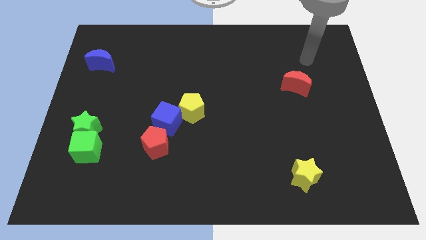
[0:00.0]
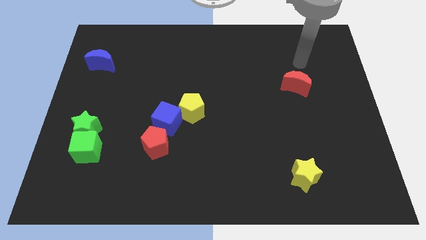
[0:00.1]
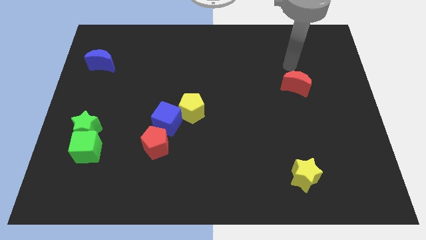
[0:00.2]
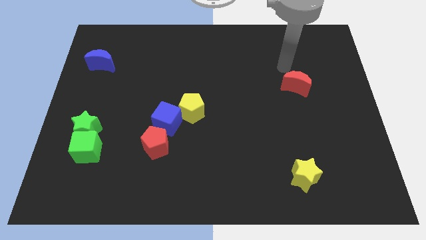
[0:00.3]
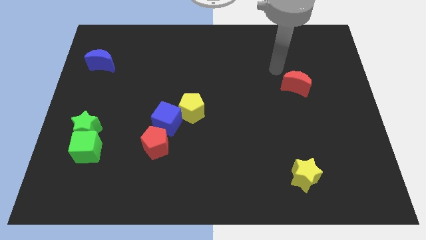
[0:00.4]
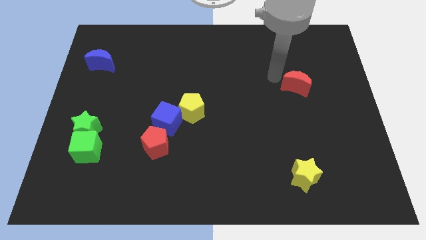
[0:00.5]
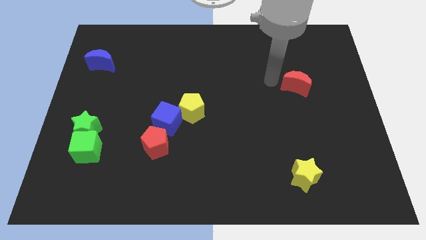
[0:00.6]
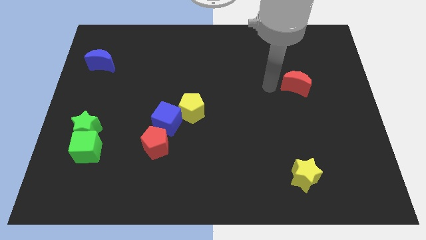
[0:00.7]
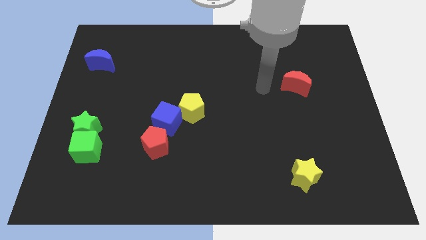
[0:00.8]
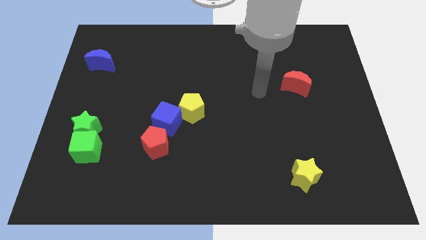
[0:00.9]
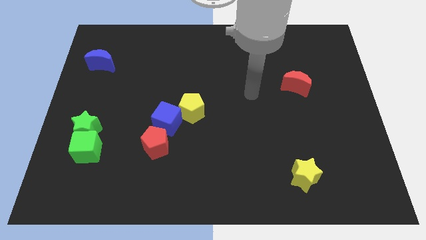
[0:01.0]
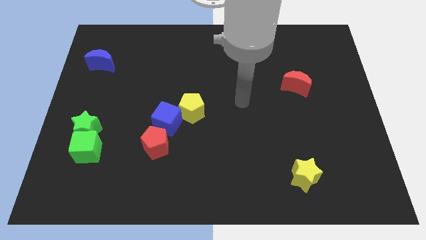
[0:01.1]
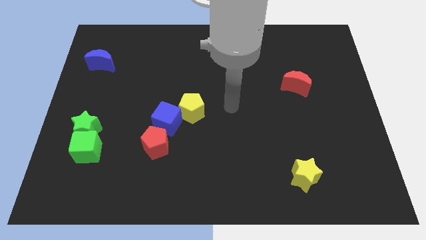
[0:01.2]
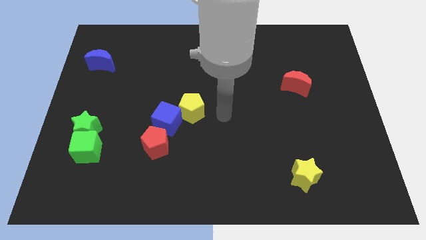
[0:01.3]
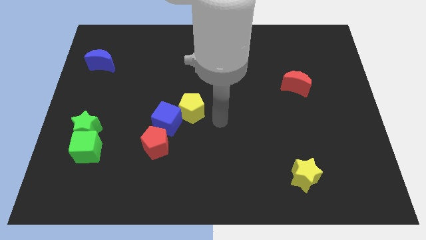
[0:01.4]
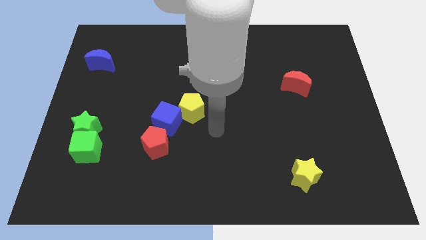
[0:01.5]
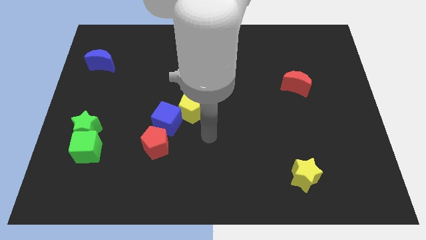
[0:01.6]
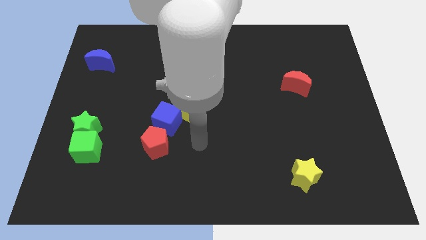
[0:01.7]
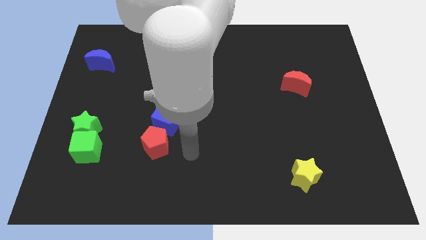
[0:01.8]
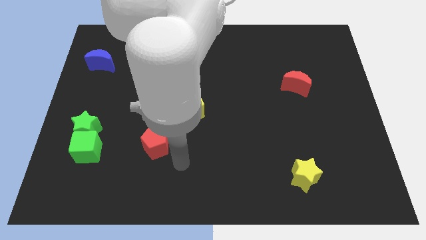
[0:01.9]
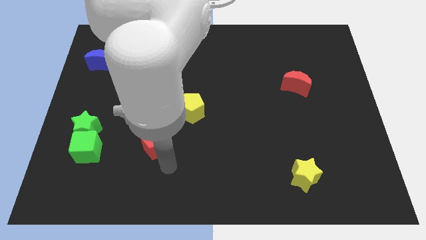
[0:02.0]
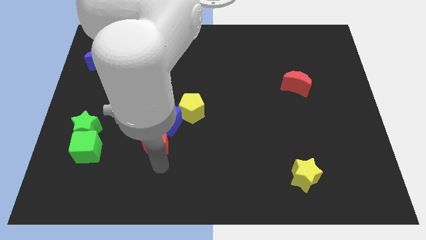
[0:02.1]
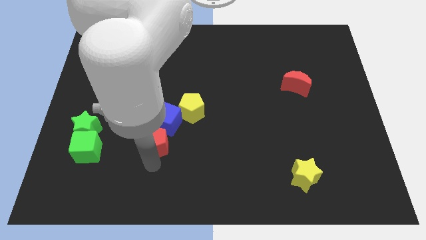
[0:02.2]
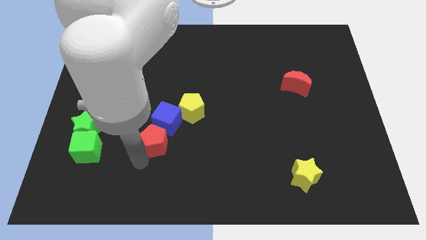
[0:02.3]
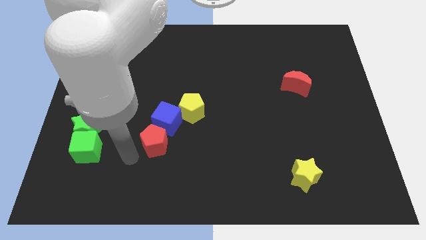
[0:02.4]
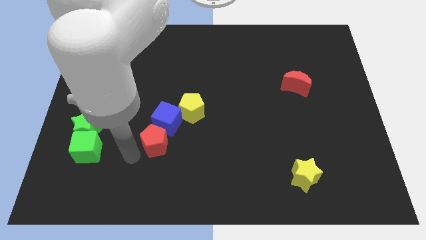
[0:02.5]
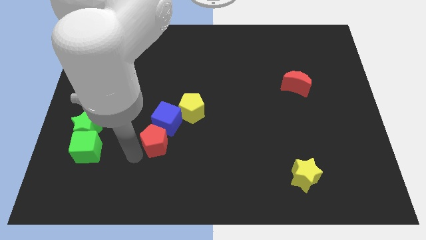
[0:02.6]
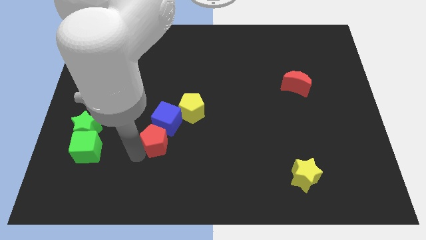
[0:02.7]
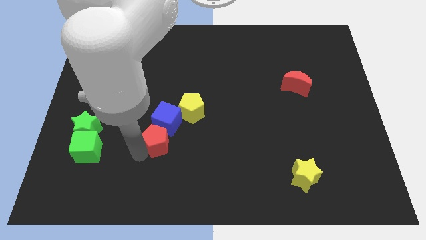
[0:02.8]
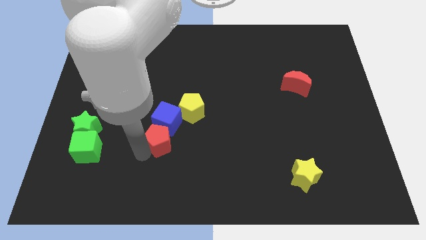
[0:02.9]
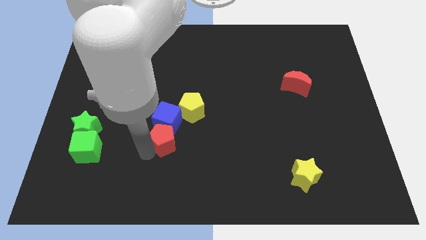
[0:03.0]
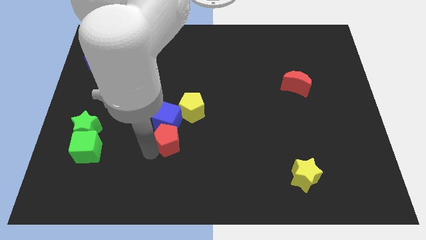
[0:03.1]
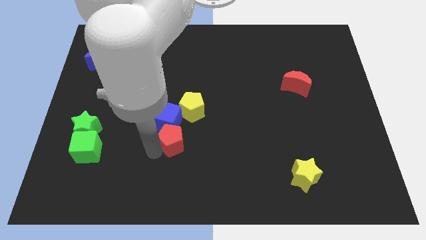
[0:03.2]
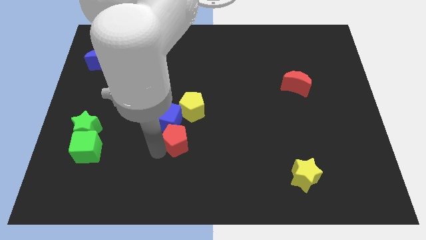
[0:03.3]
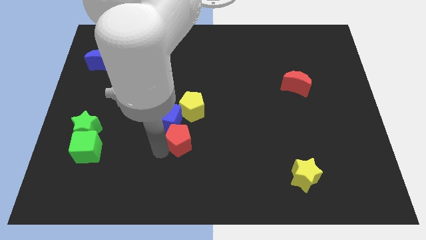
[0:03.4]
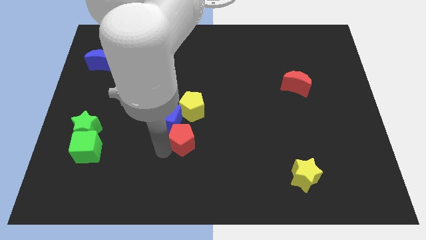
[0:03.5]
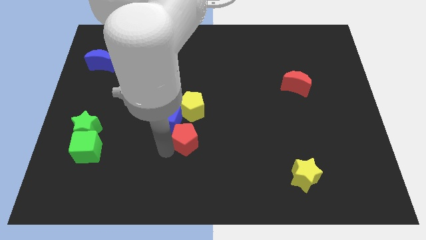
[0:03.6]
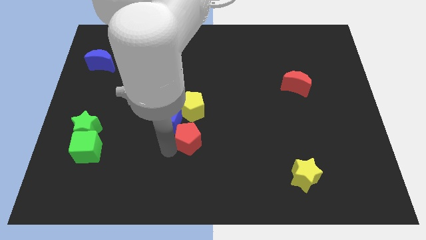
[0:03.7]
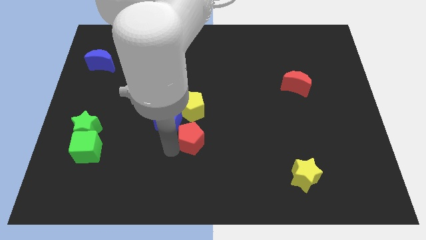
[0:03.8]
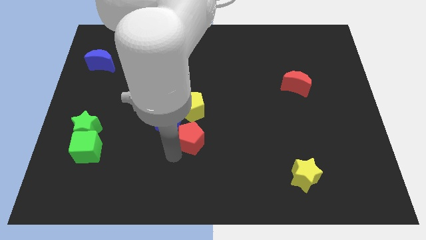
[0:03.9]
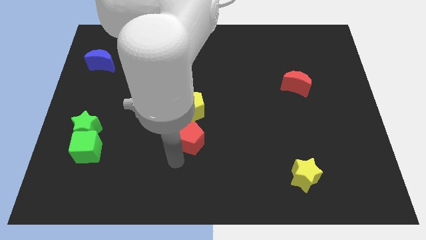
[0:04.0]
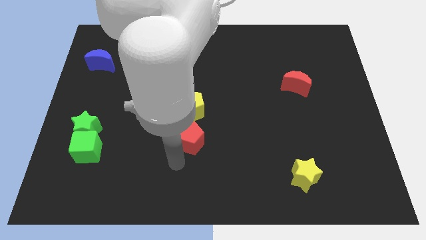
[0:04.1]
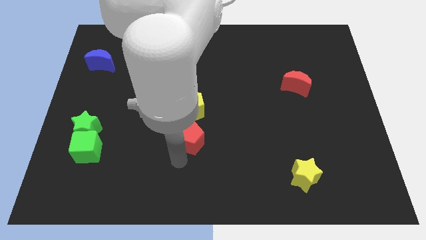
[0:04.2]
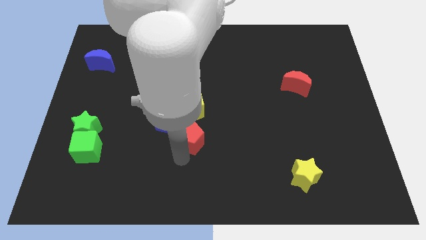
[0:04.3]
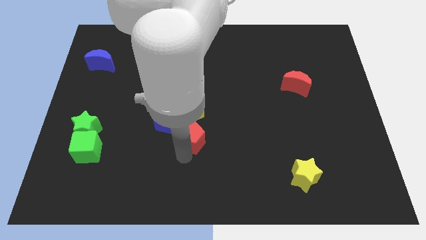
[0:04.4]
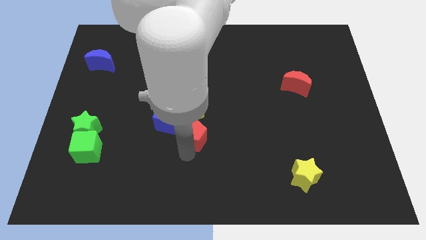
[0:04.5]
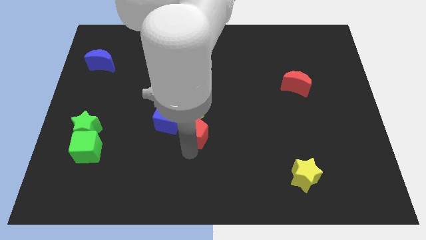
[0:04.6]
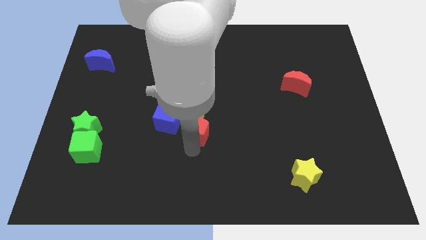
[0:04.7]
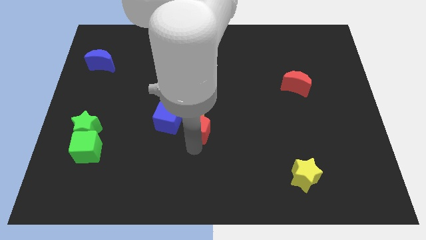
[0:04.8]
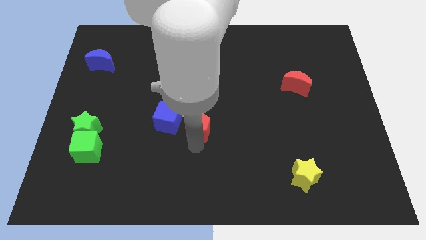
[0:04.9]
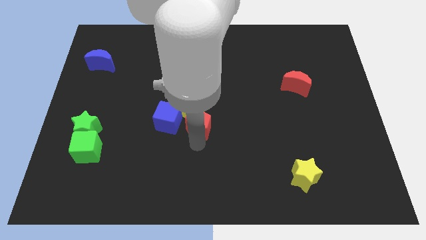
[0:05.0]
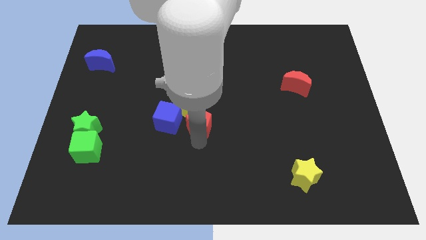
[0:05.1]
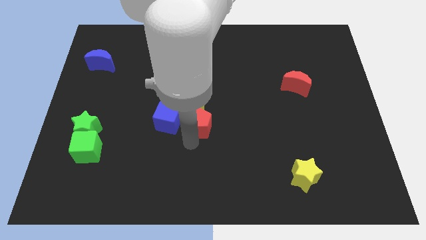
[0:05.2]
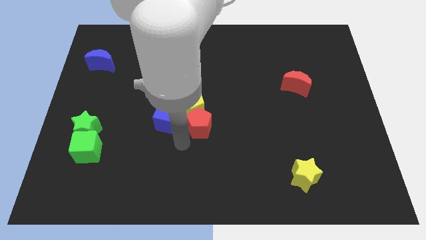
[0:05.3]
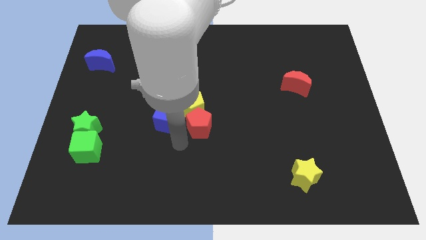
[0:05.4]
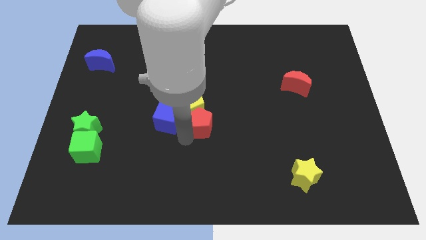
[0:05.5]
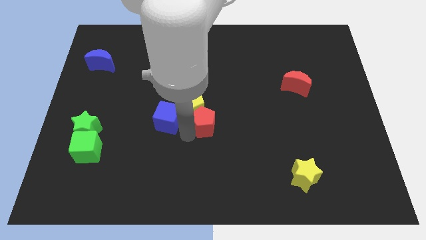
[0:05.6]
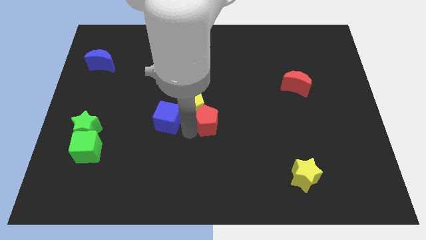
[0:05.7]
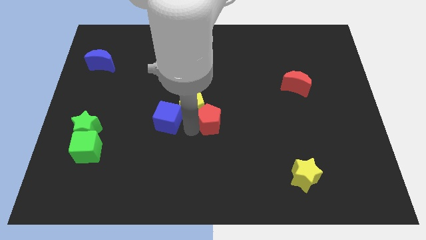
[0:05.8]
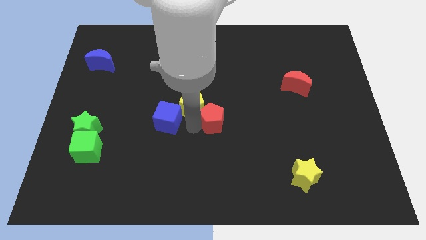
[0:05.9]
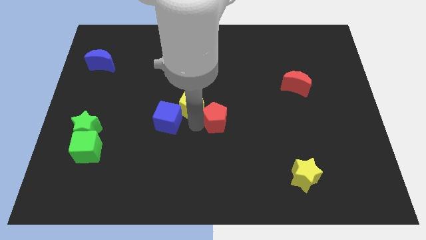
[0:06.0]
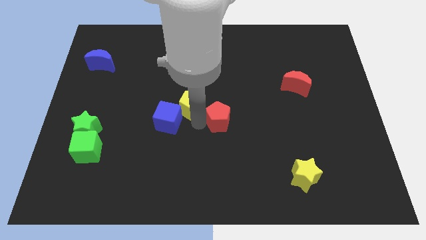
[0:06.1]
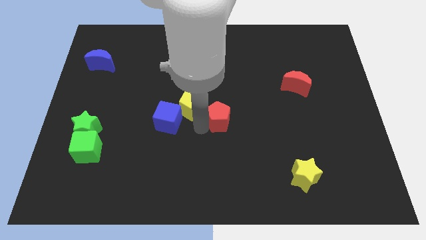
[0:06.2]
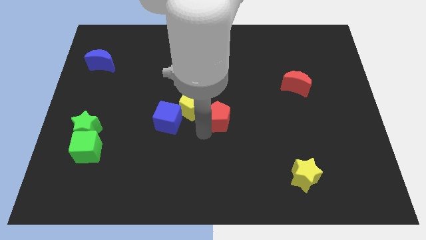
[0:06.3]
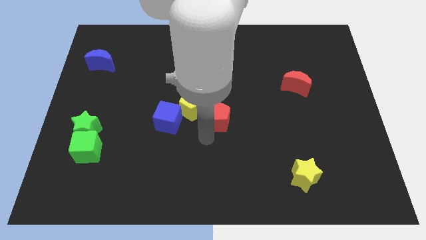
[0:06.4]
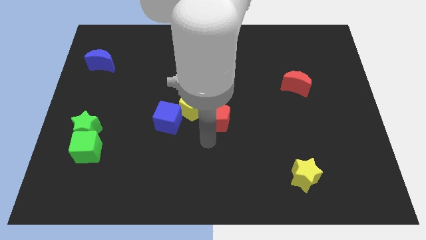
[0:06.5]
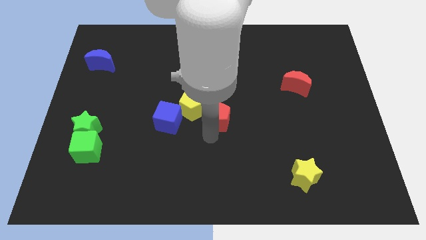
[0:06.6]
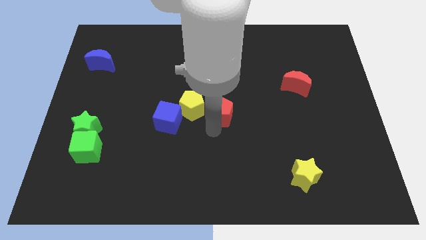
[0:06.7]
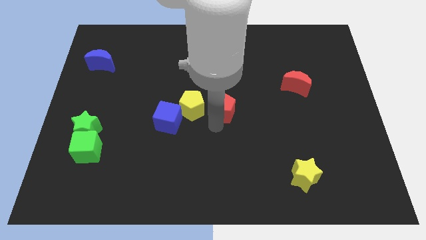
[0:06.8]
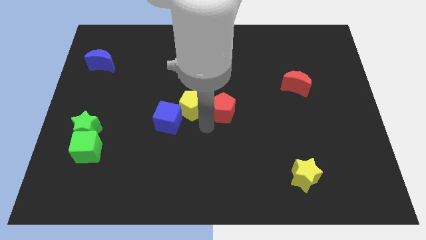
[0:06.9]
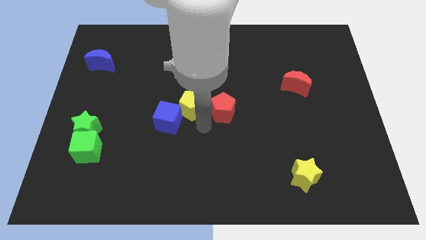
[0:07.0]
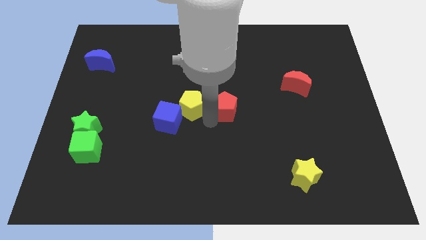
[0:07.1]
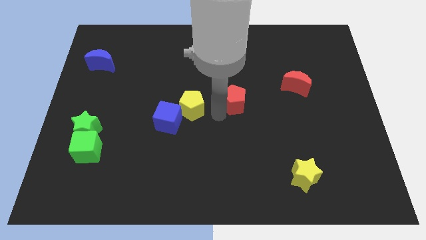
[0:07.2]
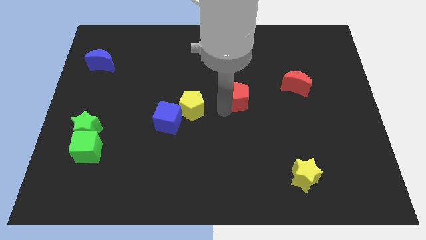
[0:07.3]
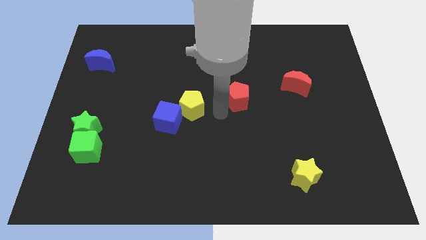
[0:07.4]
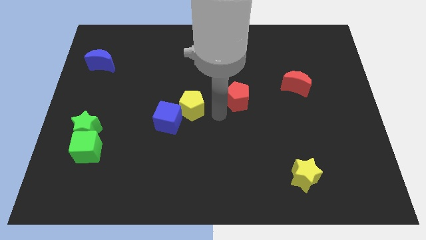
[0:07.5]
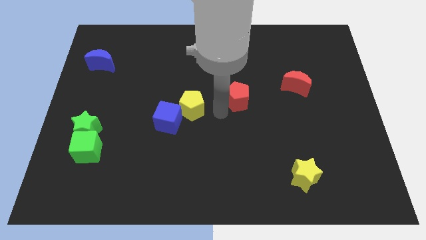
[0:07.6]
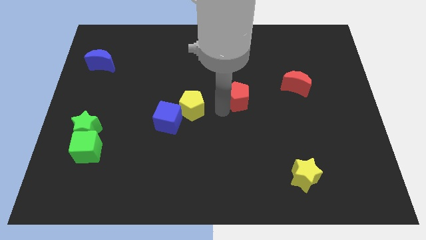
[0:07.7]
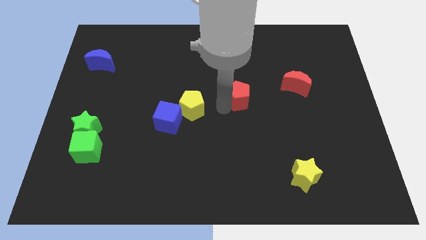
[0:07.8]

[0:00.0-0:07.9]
push the red pentagon just left of the red moon
